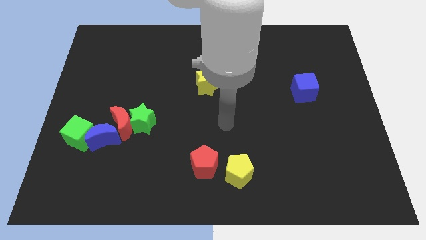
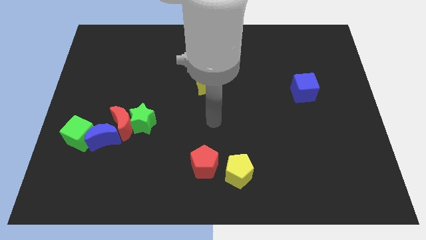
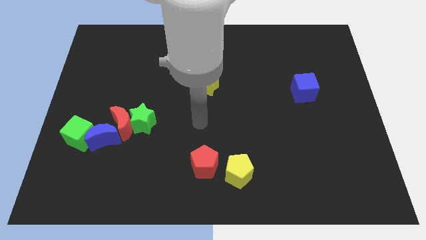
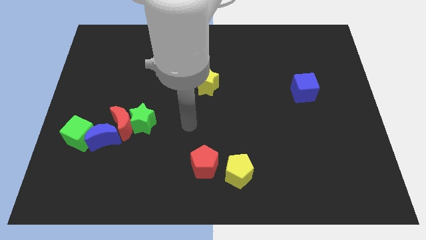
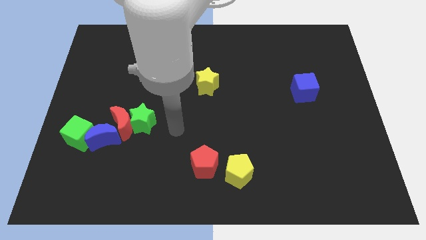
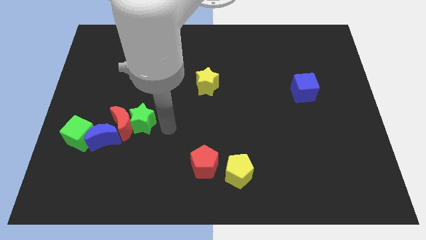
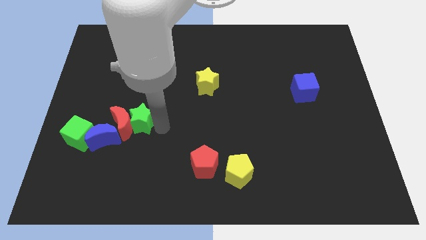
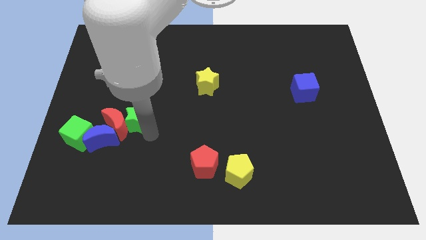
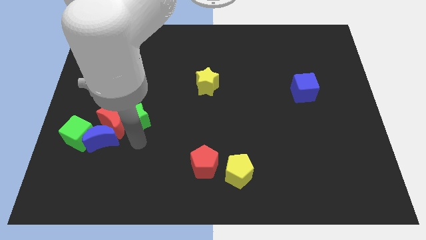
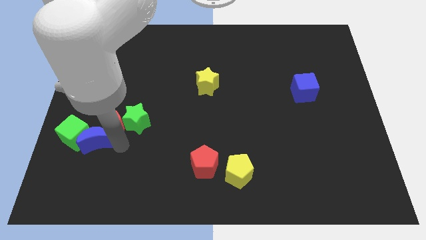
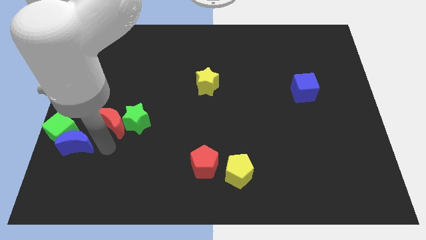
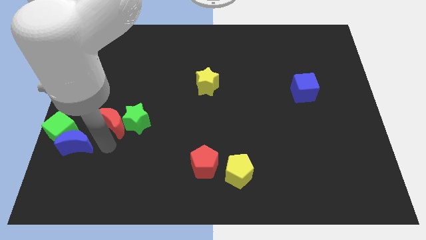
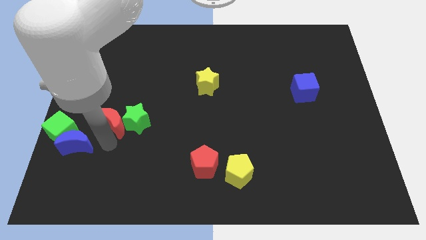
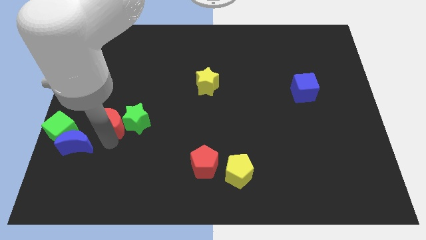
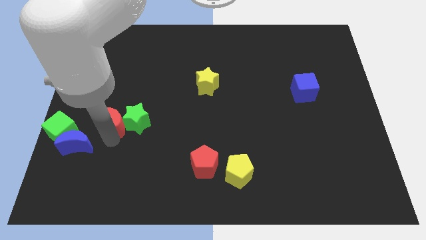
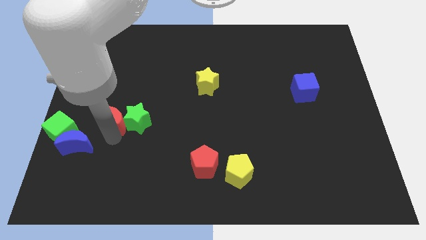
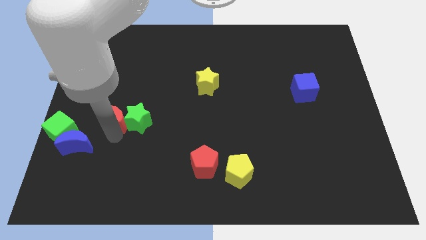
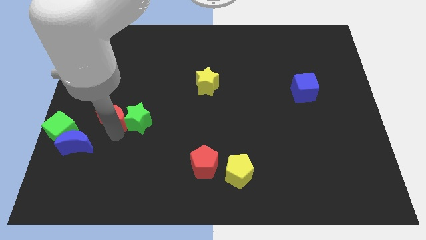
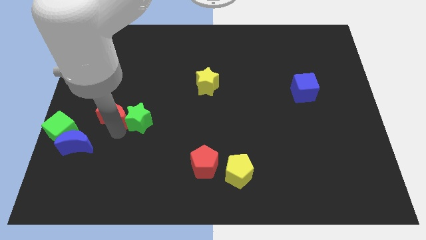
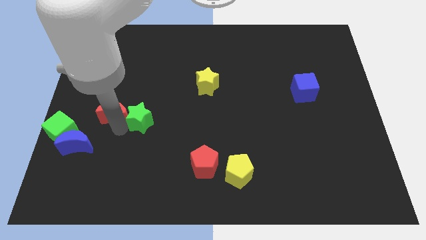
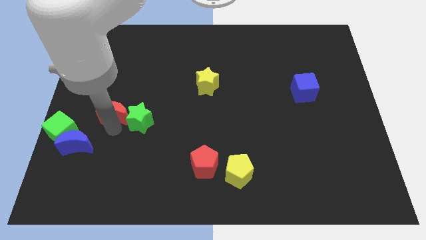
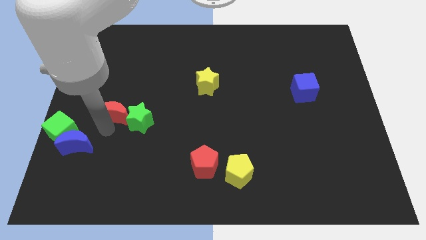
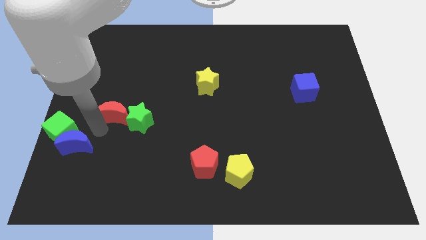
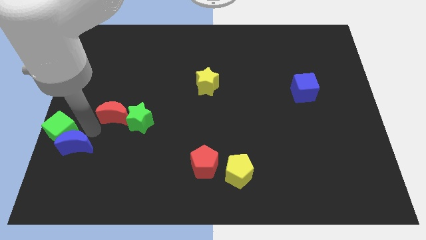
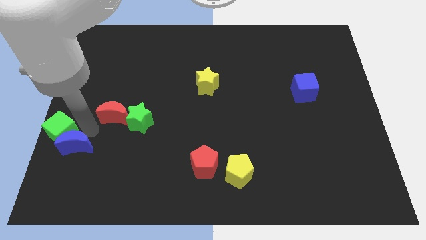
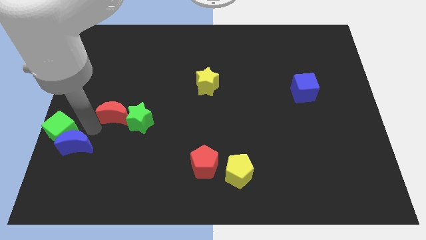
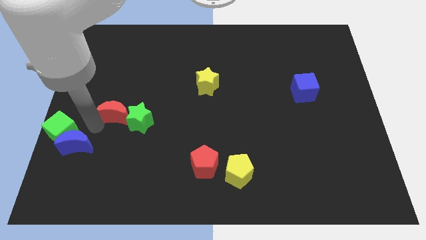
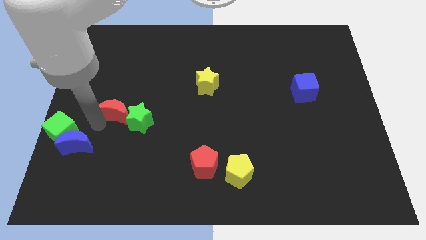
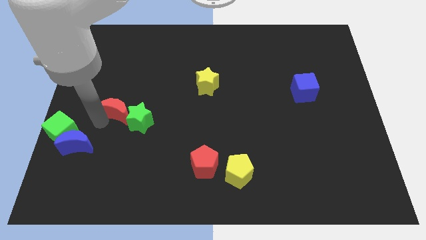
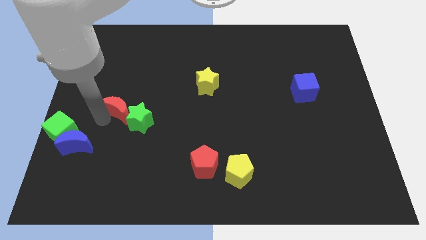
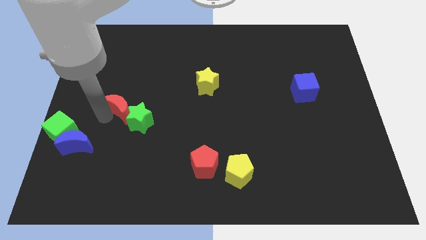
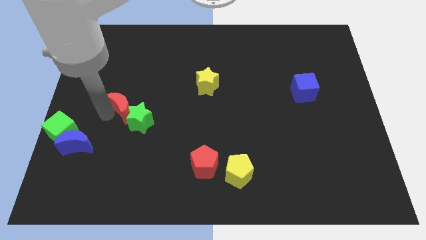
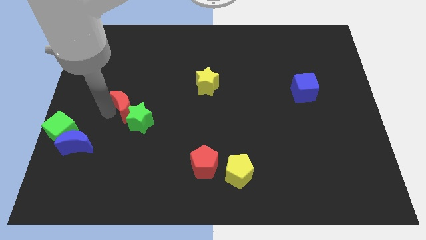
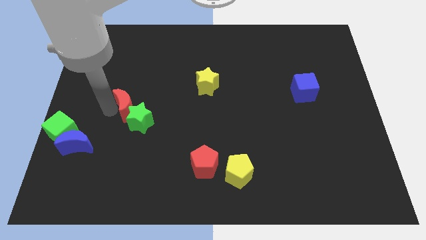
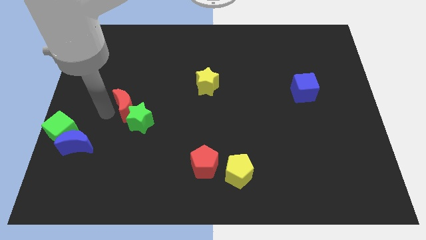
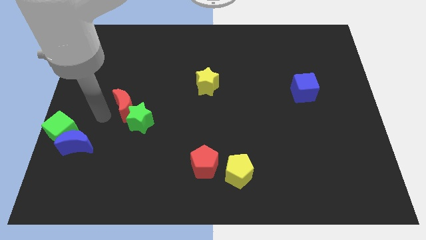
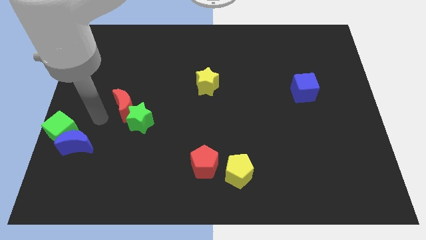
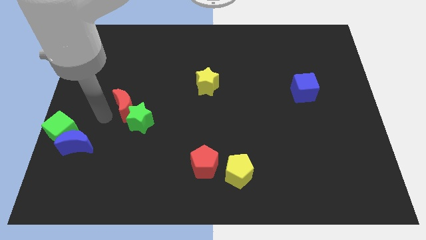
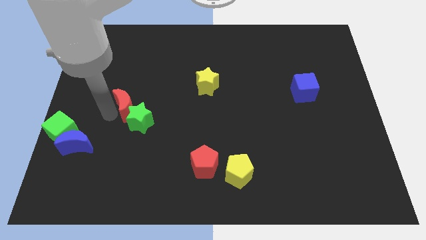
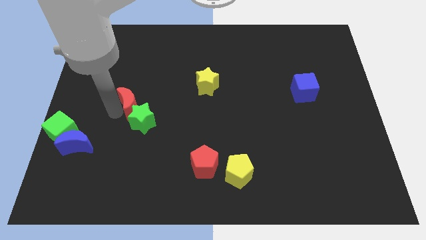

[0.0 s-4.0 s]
pull the red moon apart from the green star, blue moon, and green cube

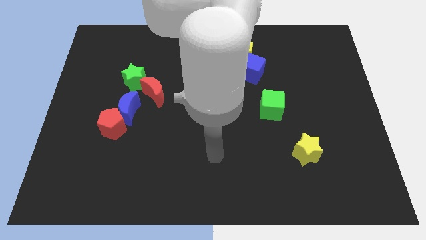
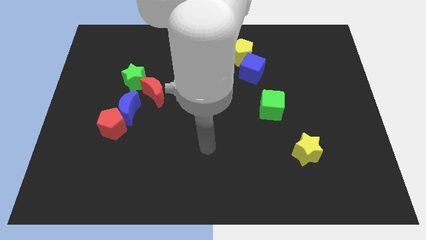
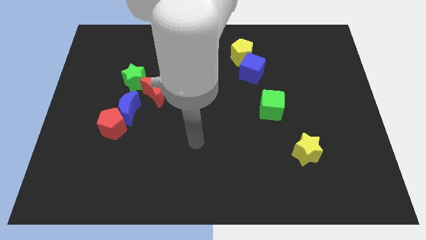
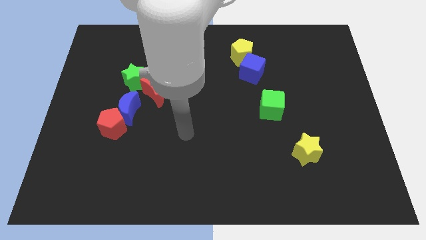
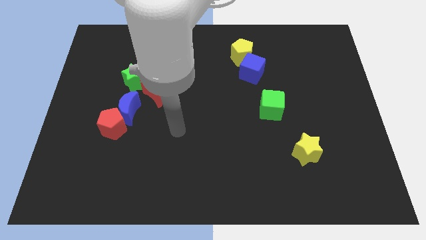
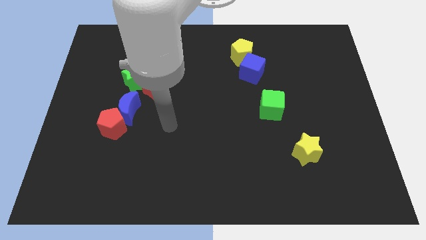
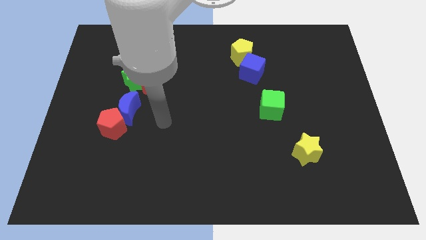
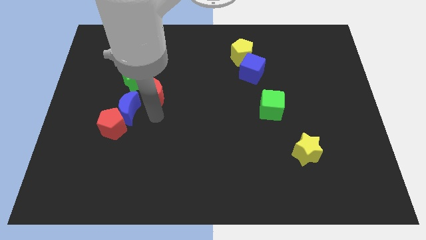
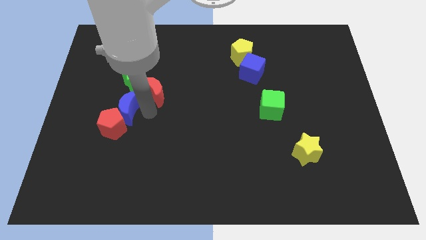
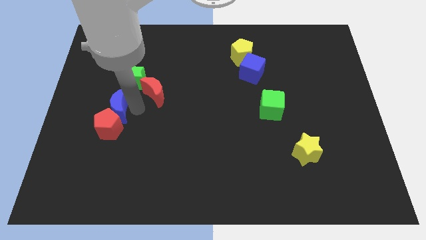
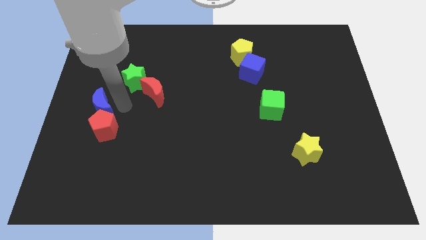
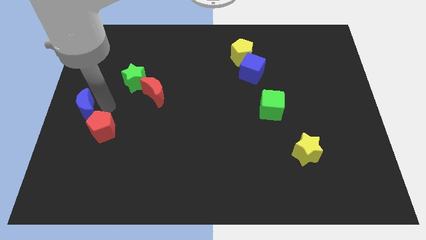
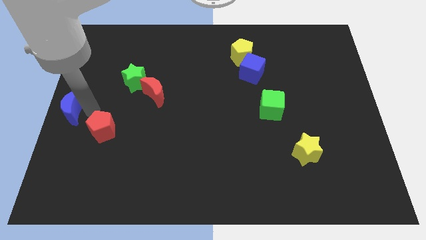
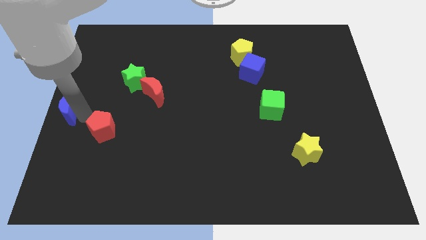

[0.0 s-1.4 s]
pull the red pentagon apart from the blue moon

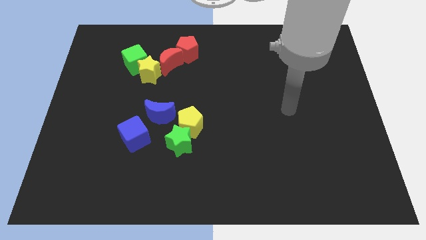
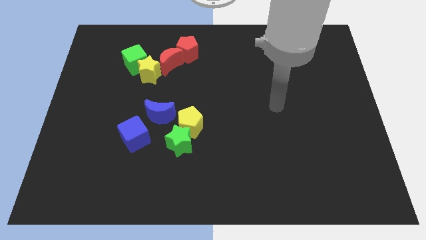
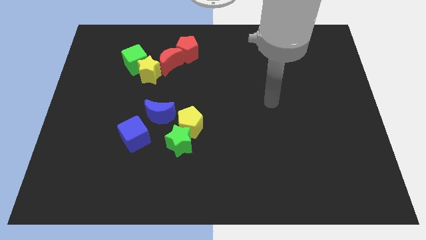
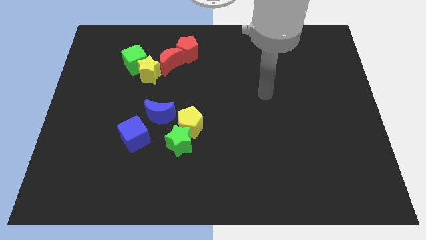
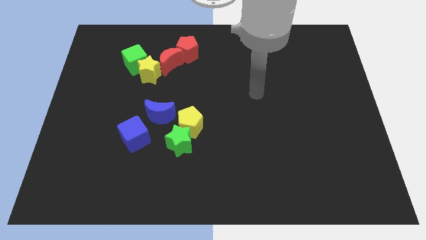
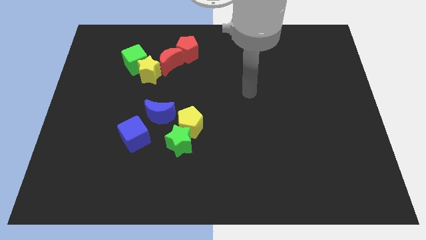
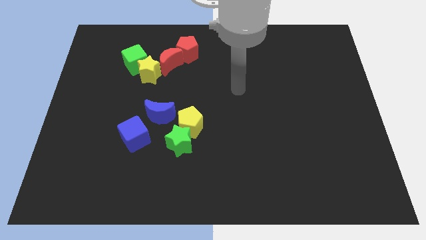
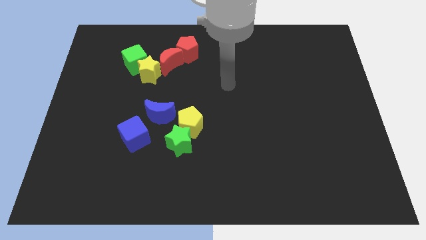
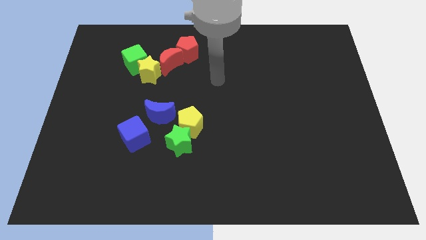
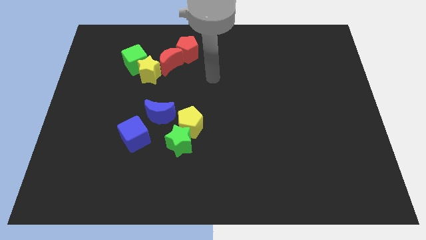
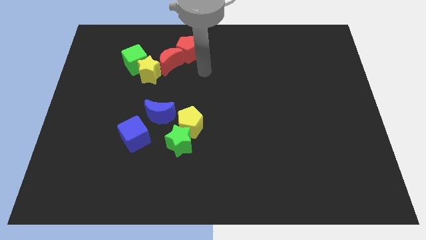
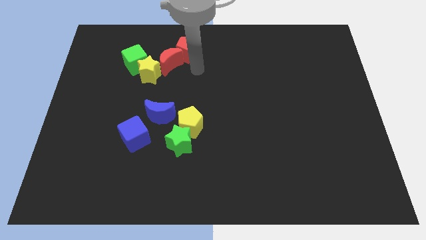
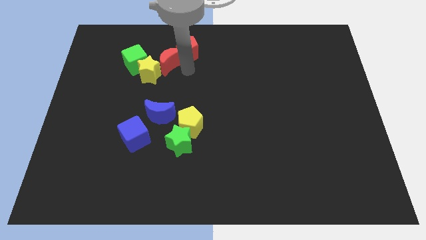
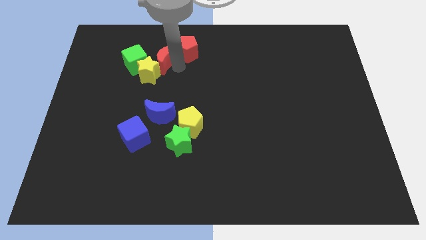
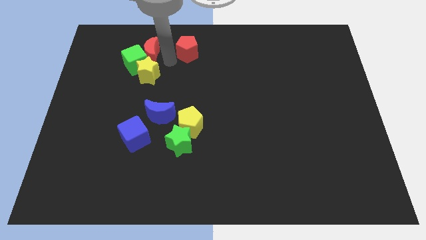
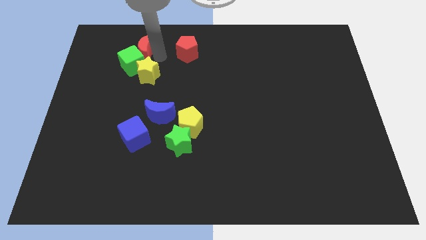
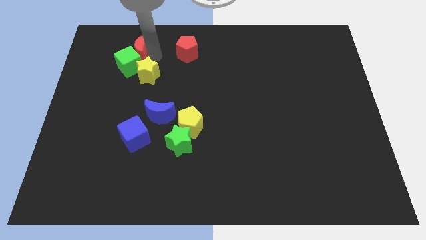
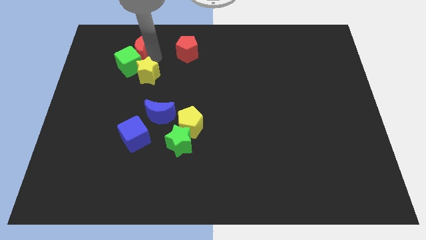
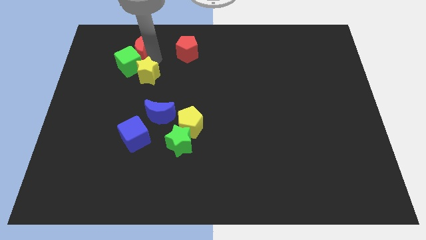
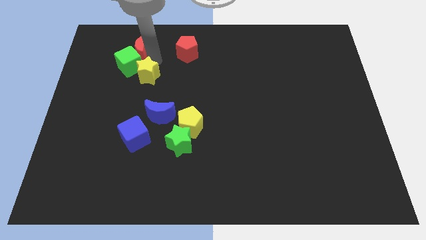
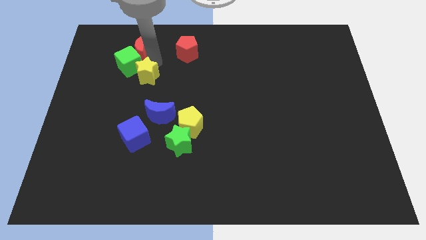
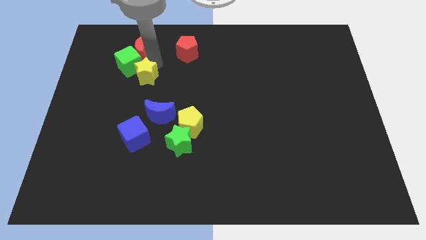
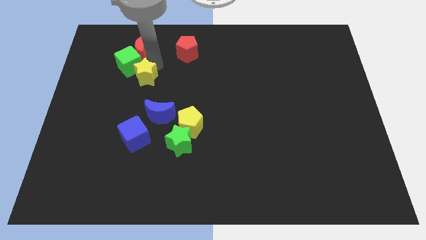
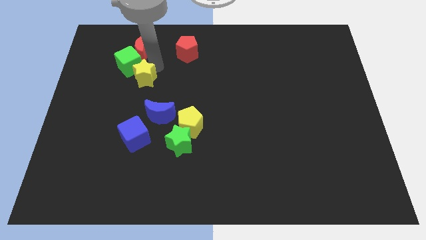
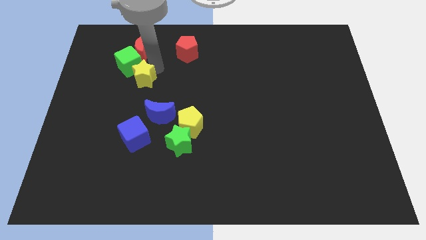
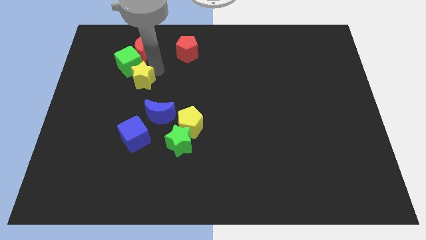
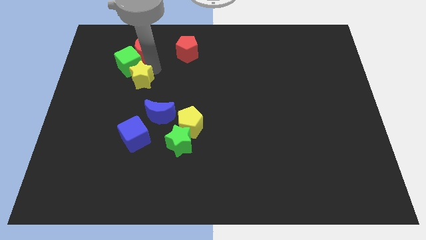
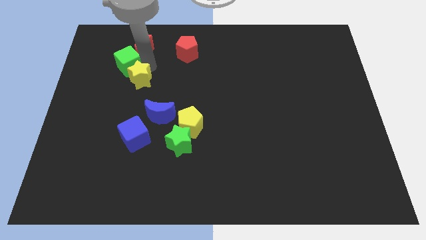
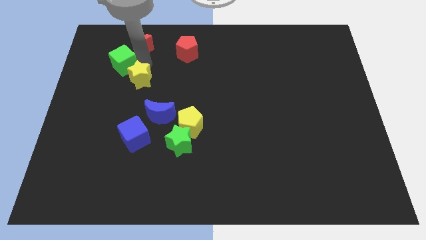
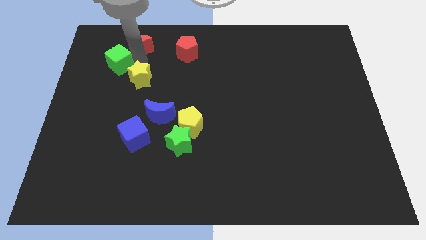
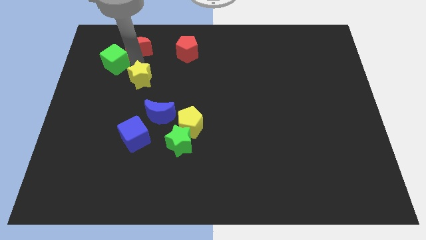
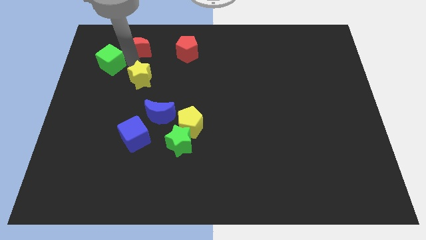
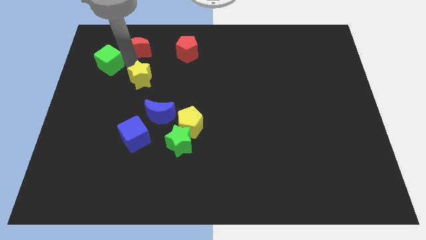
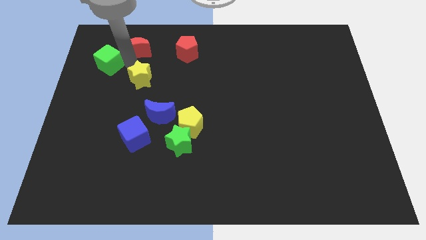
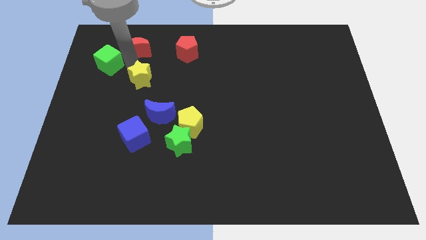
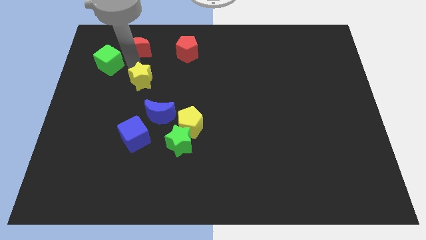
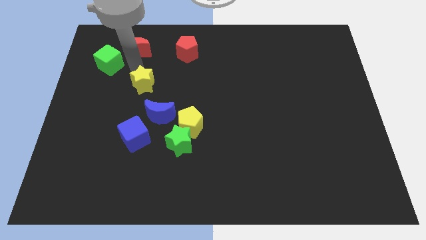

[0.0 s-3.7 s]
pull the yellow star apart from the green cube and red moon

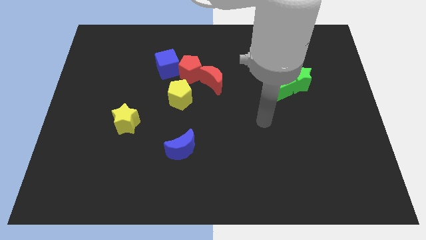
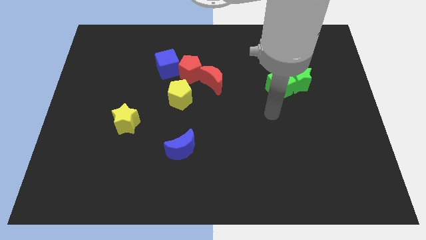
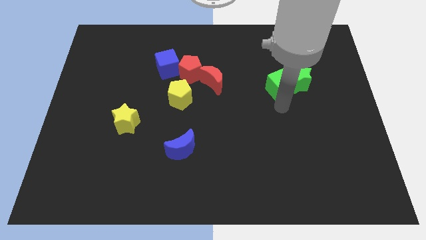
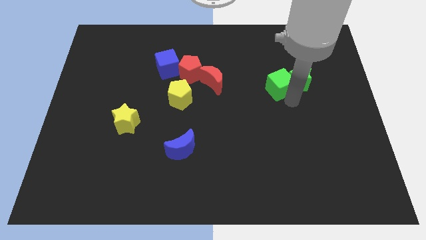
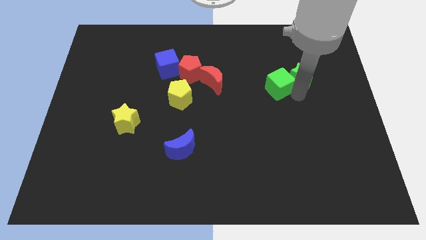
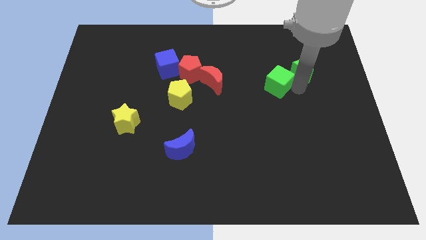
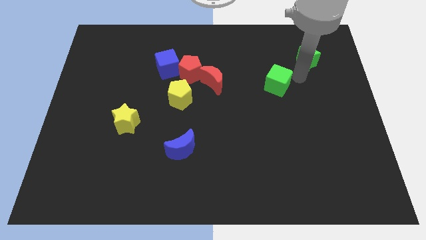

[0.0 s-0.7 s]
separate the green cube from the green star
